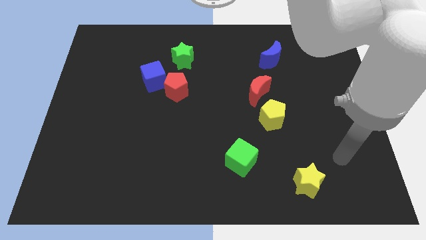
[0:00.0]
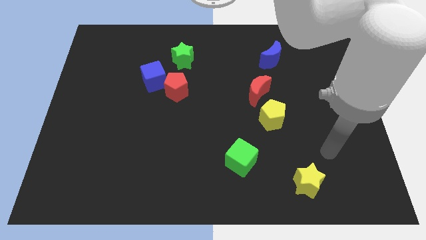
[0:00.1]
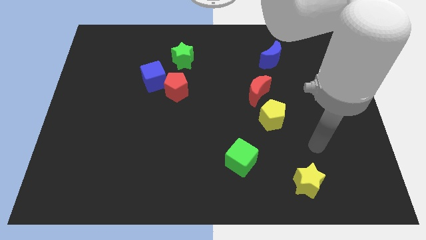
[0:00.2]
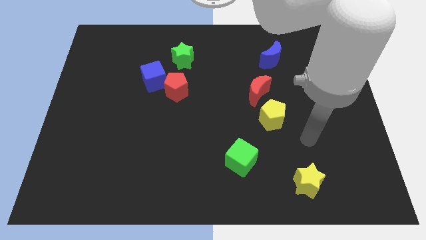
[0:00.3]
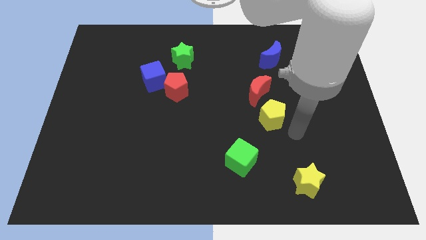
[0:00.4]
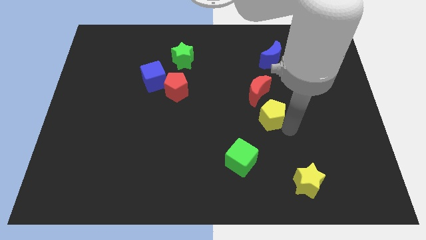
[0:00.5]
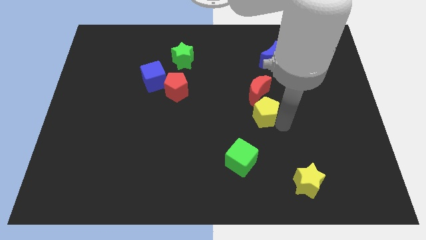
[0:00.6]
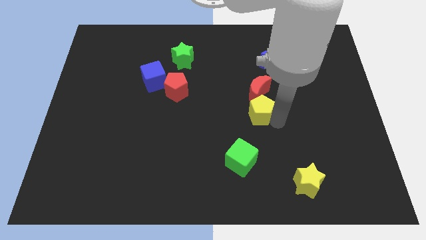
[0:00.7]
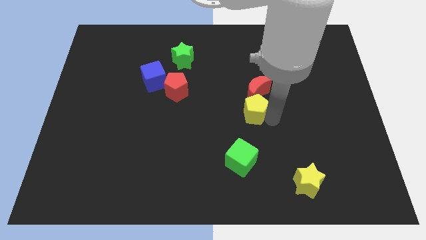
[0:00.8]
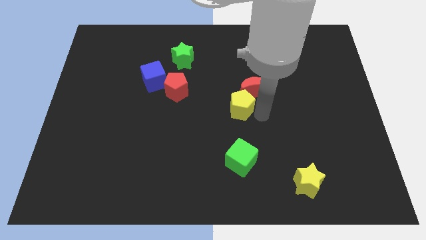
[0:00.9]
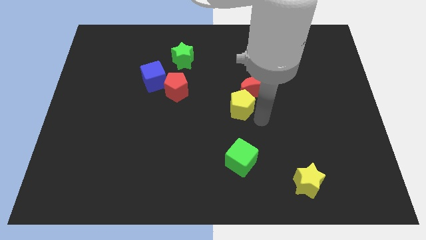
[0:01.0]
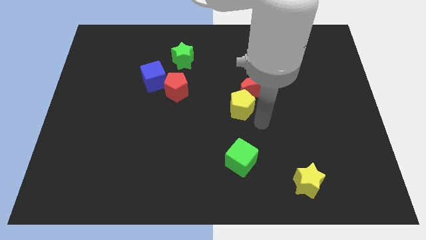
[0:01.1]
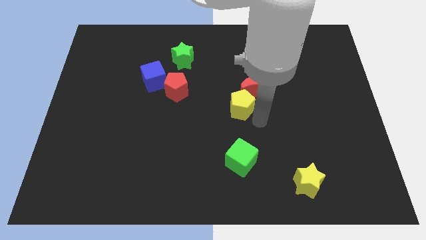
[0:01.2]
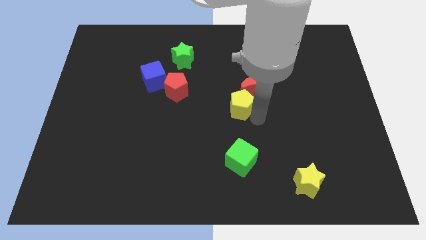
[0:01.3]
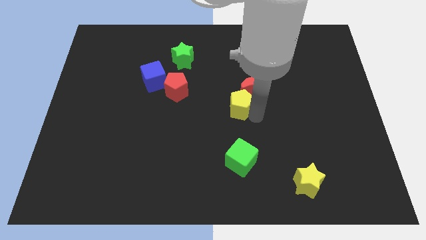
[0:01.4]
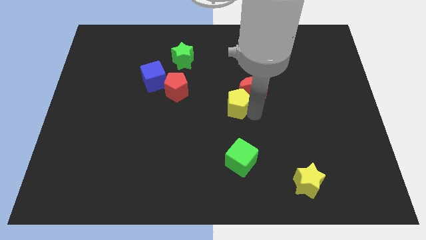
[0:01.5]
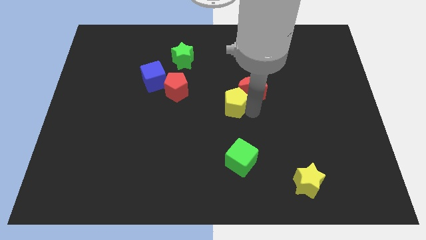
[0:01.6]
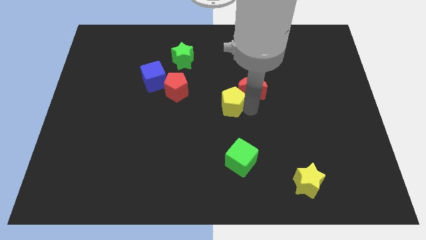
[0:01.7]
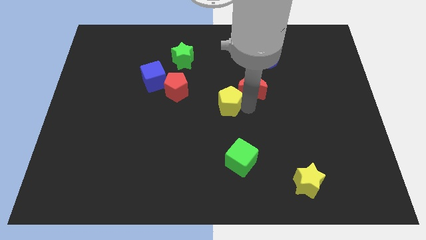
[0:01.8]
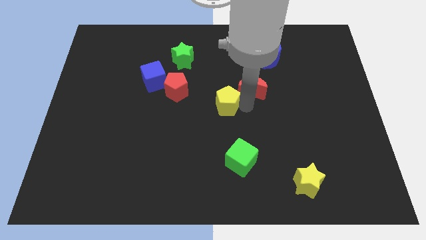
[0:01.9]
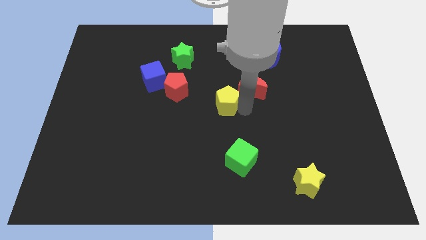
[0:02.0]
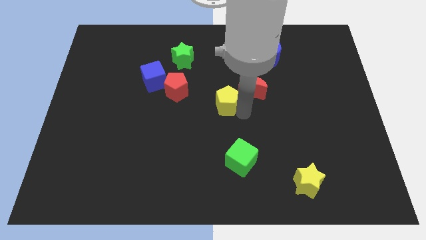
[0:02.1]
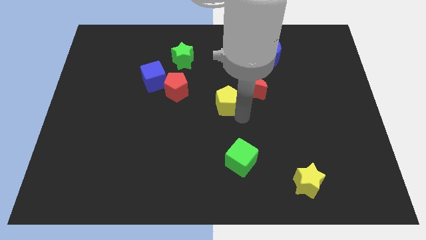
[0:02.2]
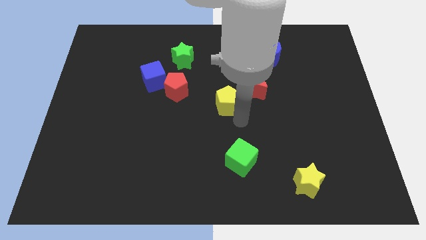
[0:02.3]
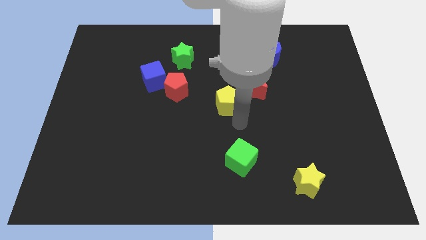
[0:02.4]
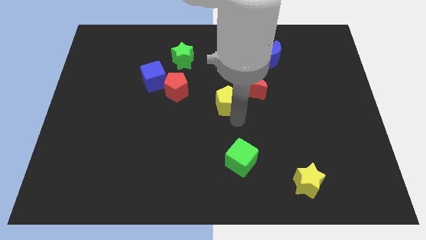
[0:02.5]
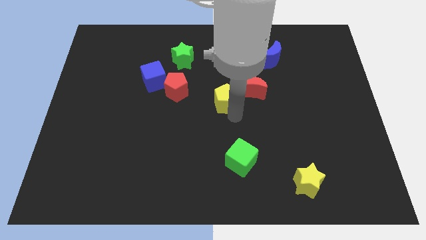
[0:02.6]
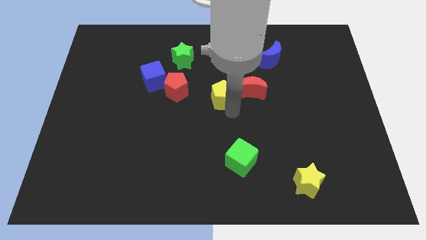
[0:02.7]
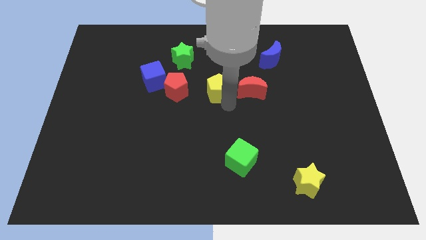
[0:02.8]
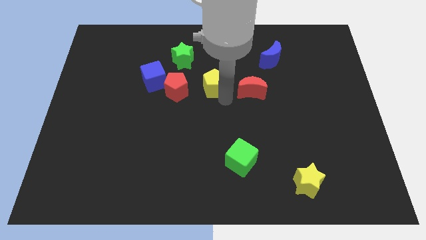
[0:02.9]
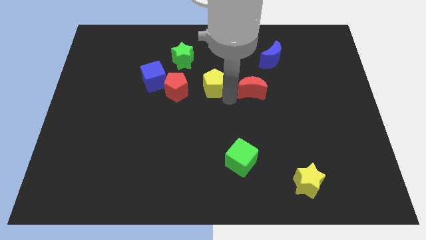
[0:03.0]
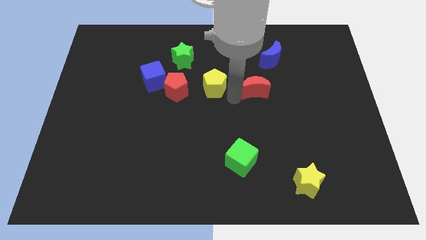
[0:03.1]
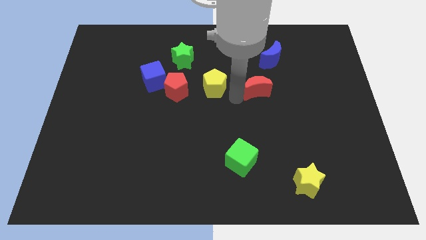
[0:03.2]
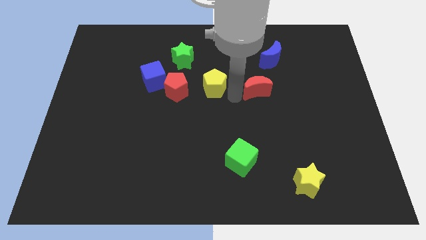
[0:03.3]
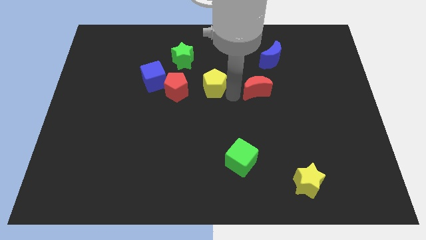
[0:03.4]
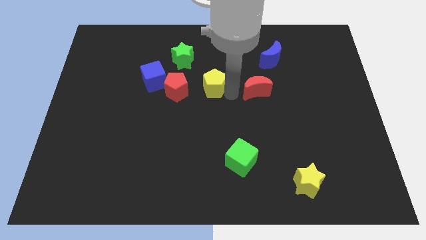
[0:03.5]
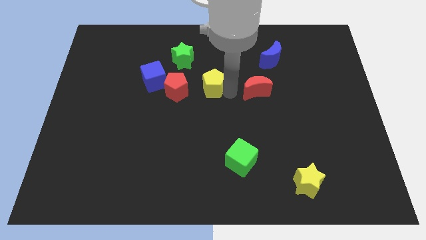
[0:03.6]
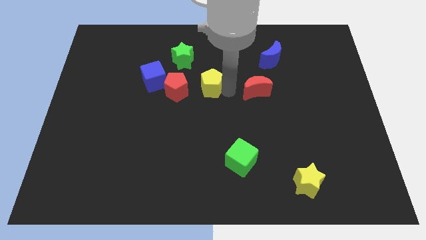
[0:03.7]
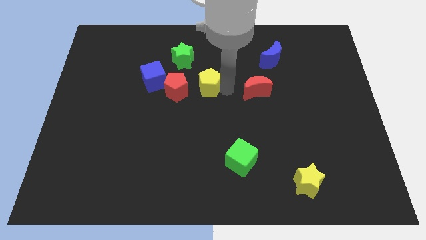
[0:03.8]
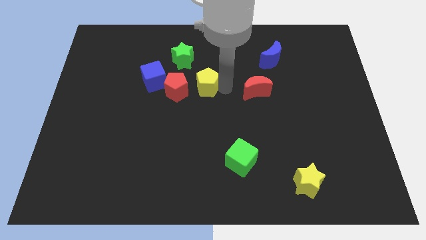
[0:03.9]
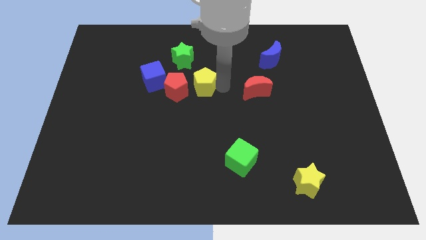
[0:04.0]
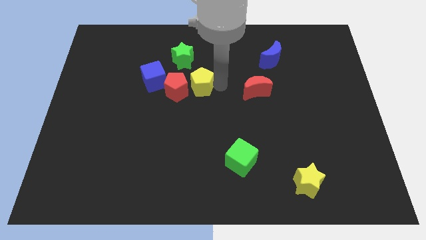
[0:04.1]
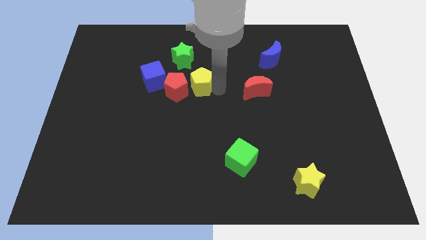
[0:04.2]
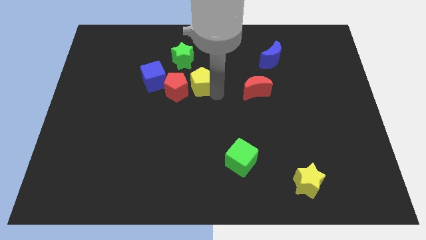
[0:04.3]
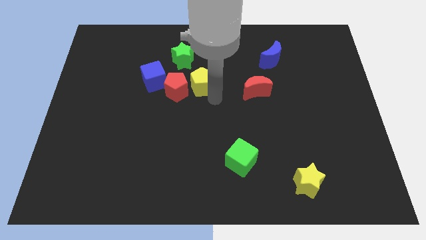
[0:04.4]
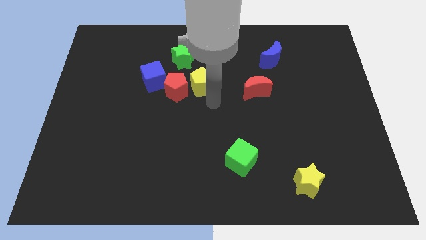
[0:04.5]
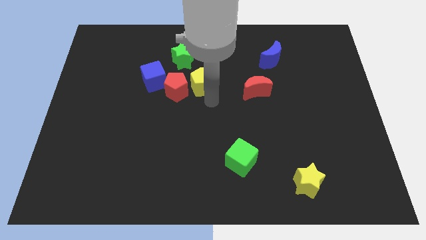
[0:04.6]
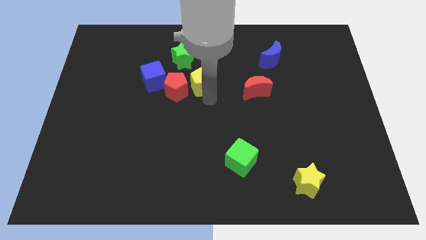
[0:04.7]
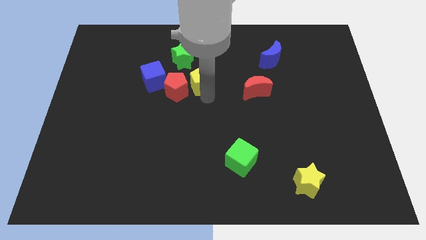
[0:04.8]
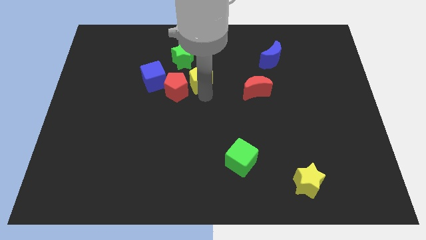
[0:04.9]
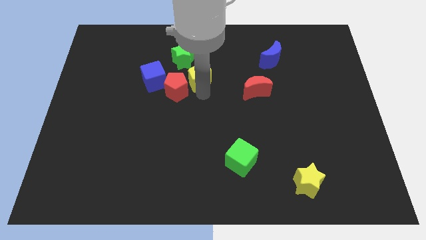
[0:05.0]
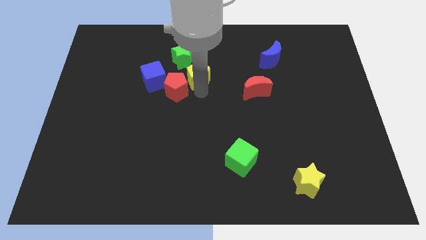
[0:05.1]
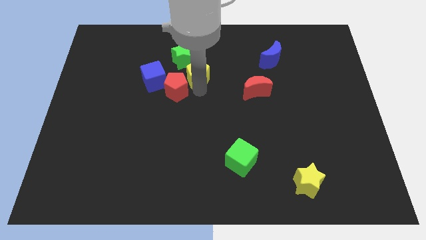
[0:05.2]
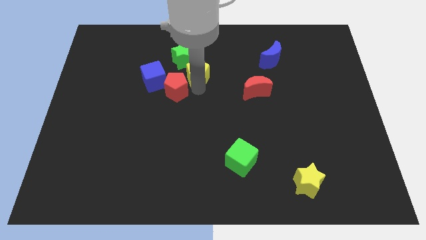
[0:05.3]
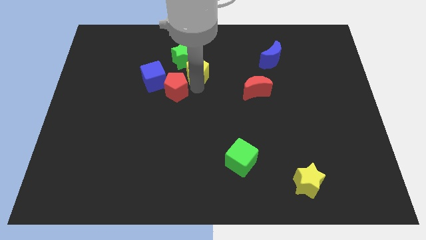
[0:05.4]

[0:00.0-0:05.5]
push the yellow pentagon next to the green star

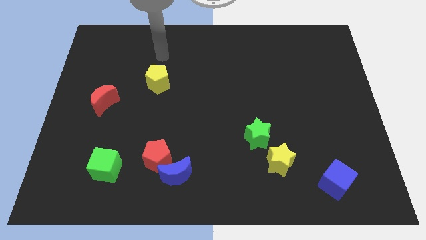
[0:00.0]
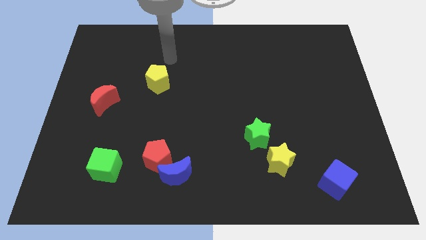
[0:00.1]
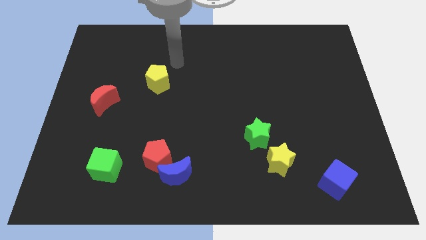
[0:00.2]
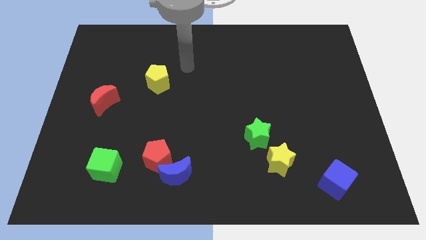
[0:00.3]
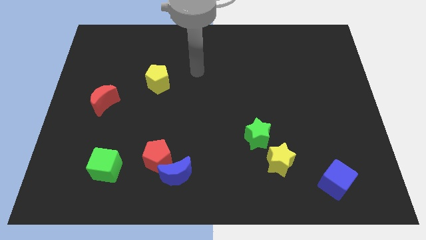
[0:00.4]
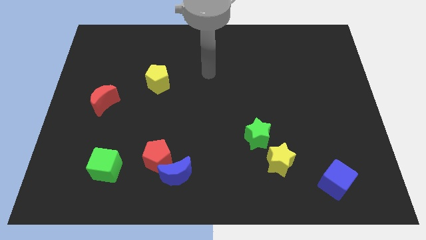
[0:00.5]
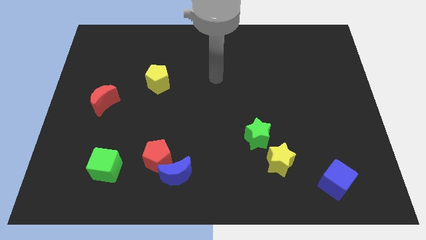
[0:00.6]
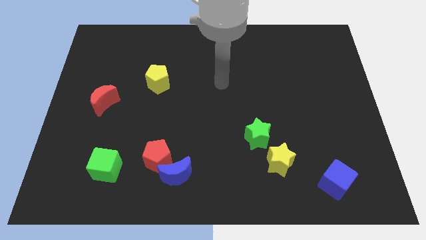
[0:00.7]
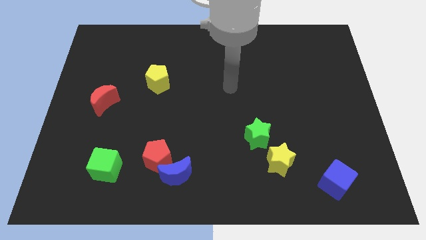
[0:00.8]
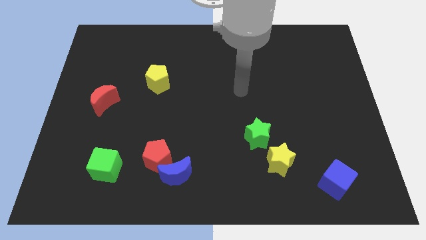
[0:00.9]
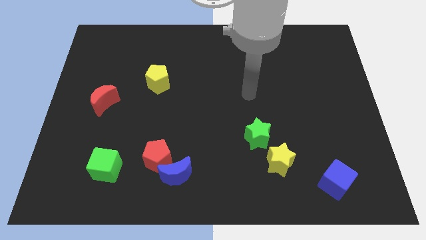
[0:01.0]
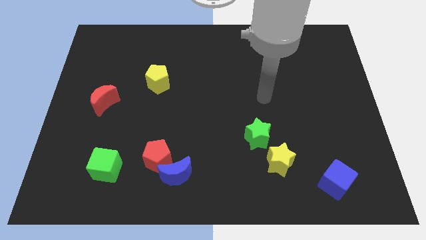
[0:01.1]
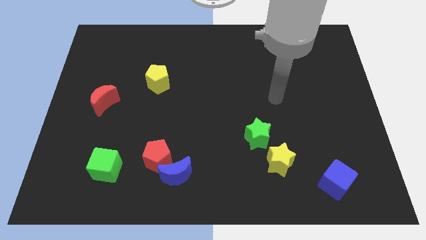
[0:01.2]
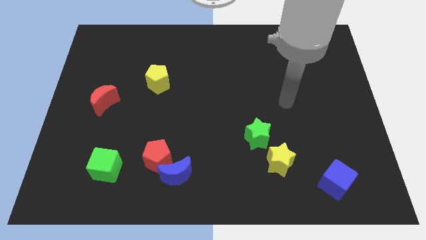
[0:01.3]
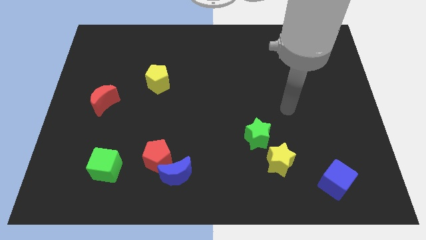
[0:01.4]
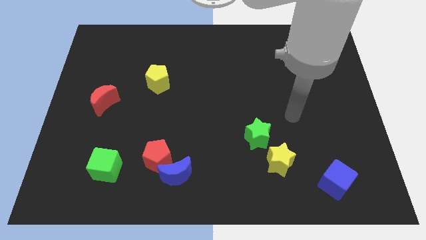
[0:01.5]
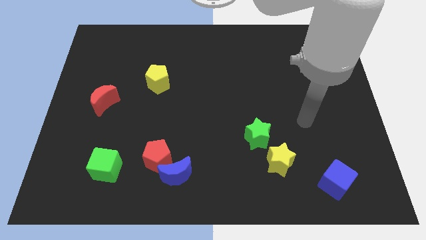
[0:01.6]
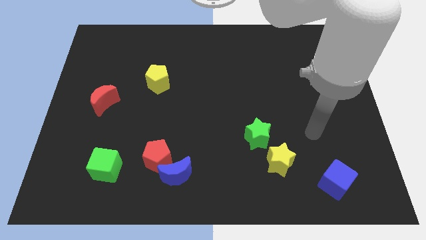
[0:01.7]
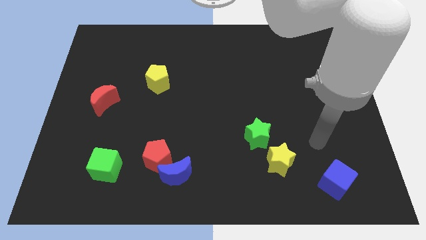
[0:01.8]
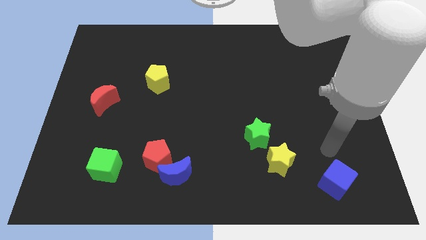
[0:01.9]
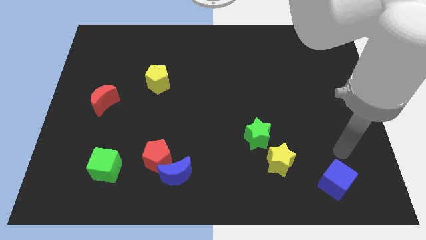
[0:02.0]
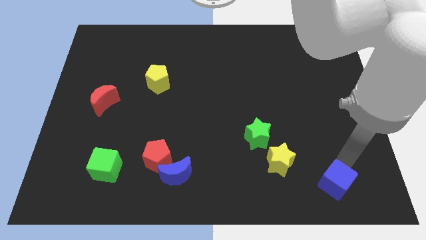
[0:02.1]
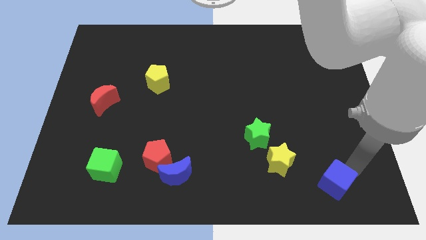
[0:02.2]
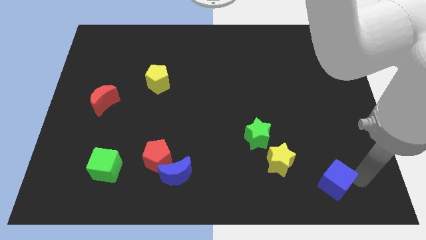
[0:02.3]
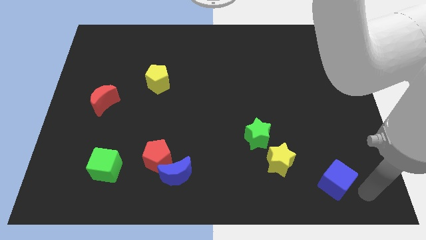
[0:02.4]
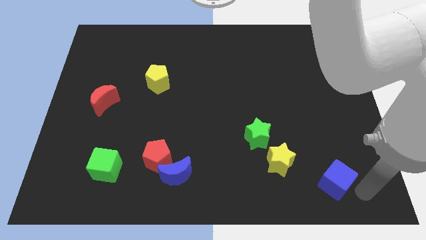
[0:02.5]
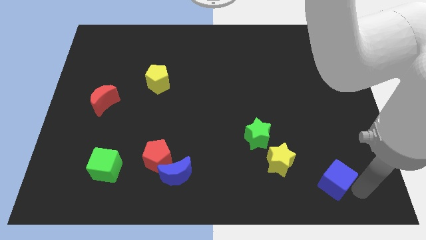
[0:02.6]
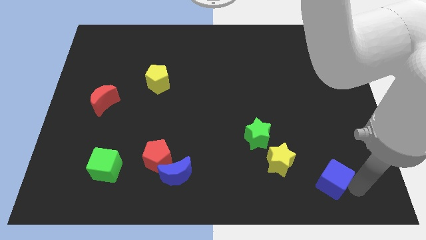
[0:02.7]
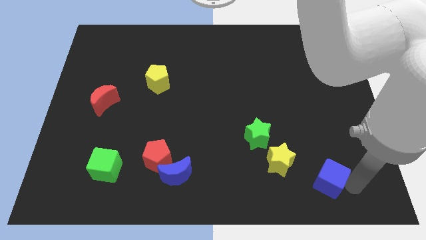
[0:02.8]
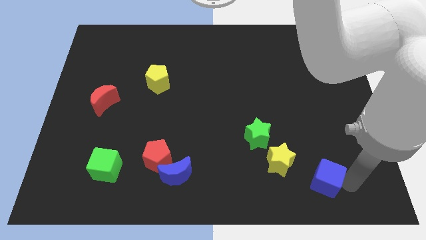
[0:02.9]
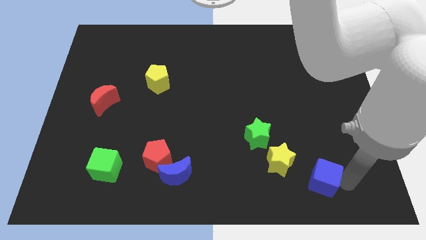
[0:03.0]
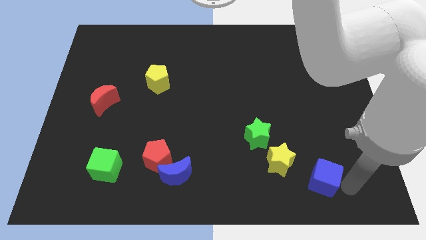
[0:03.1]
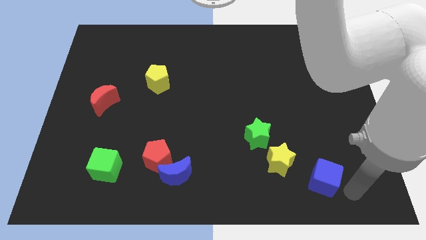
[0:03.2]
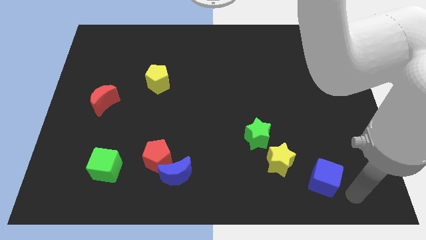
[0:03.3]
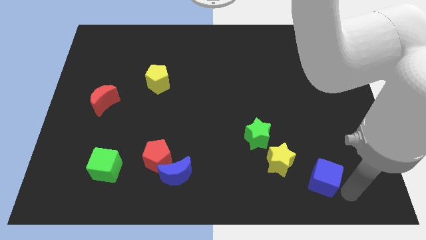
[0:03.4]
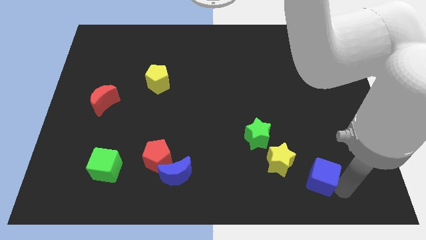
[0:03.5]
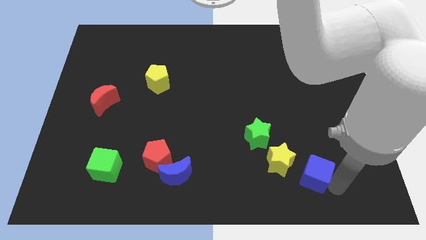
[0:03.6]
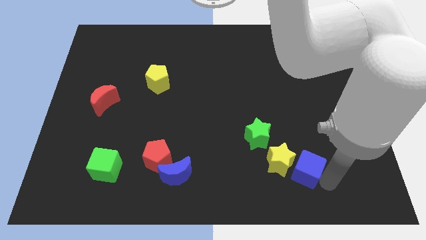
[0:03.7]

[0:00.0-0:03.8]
put the blue cube to the yellow star
